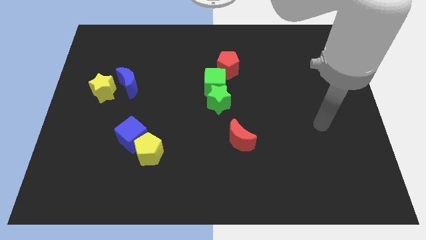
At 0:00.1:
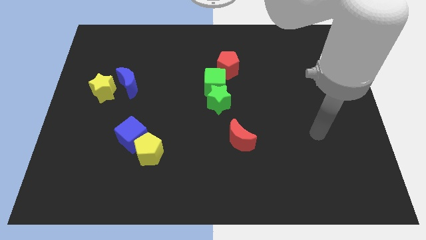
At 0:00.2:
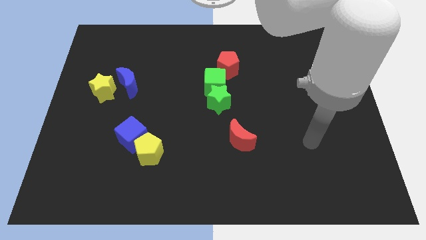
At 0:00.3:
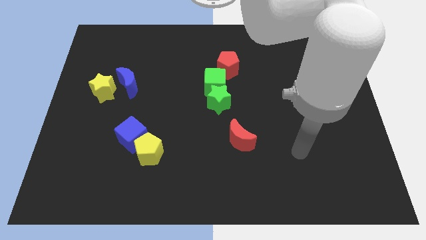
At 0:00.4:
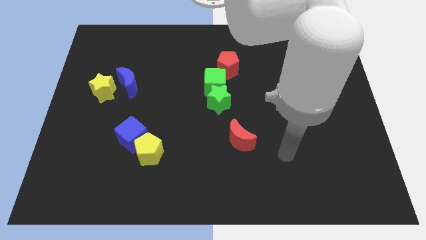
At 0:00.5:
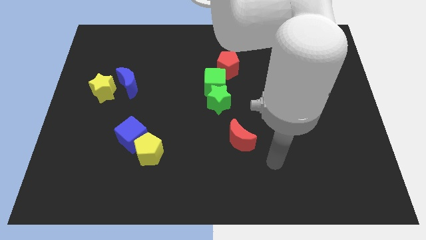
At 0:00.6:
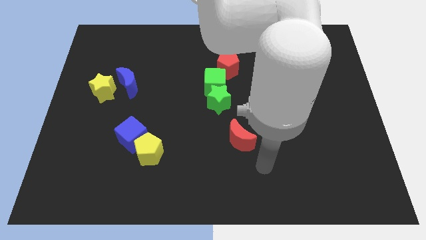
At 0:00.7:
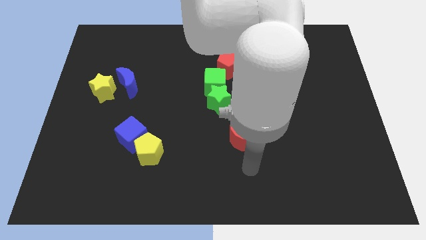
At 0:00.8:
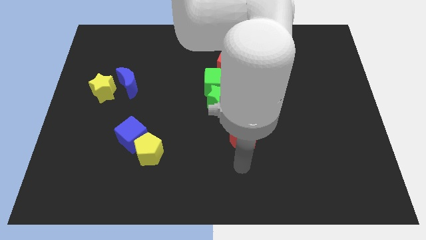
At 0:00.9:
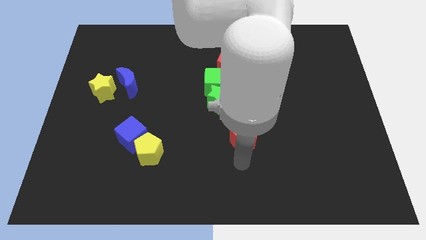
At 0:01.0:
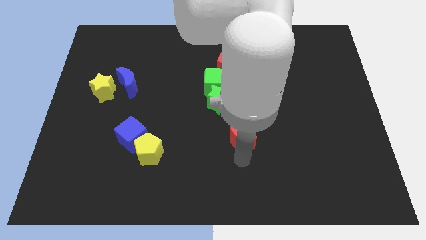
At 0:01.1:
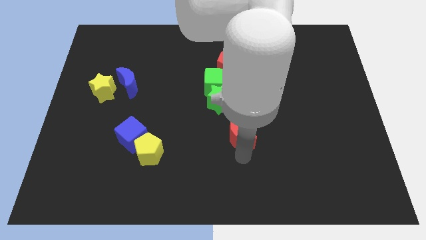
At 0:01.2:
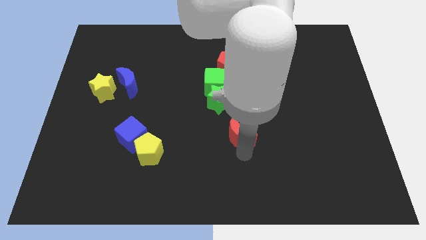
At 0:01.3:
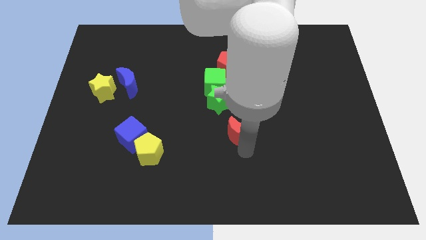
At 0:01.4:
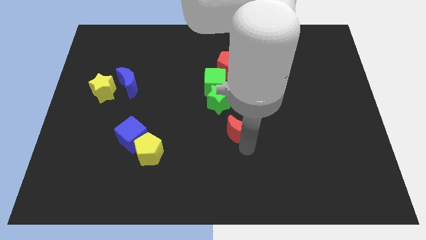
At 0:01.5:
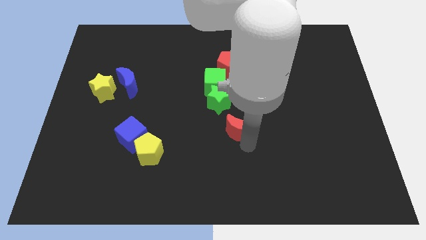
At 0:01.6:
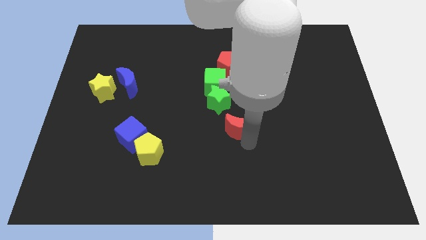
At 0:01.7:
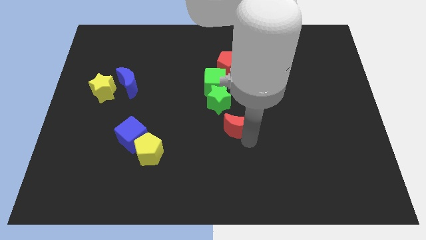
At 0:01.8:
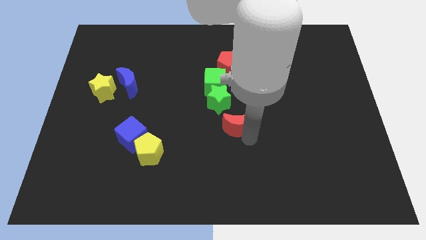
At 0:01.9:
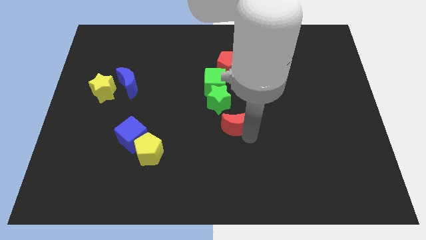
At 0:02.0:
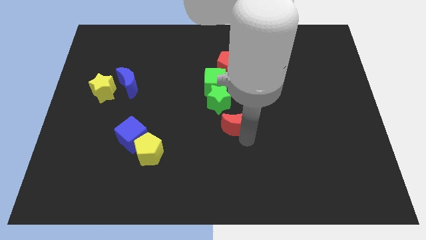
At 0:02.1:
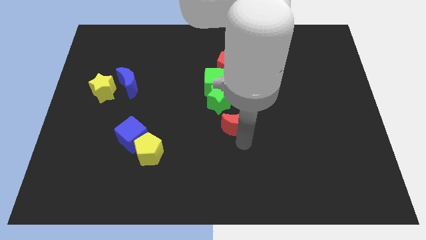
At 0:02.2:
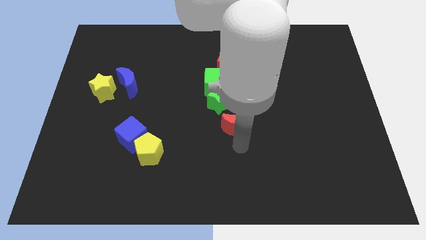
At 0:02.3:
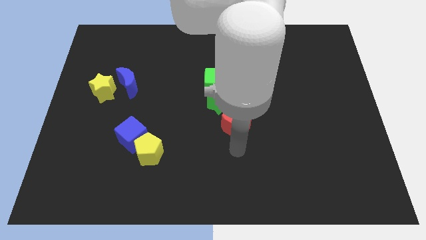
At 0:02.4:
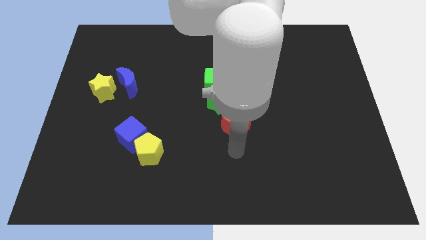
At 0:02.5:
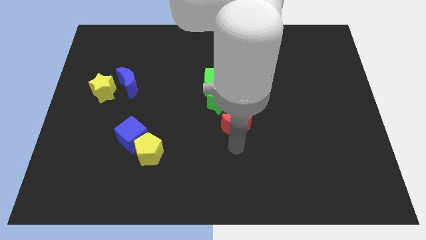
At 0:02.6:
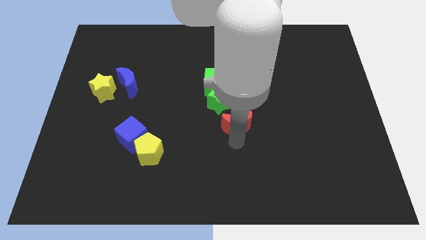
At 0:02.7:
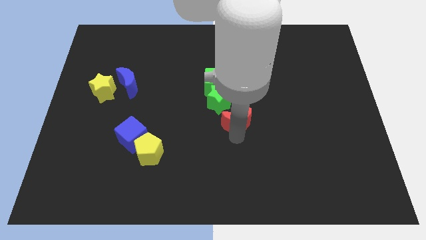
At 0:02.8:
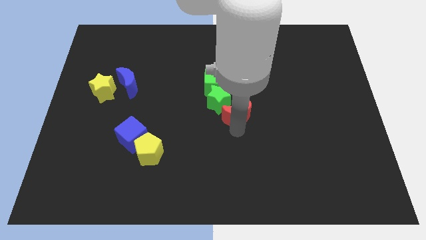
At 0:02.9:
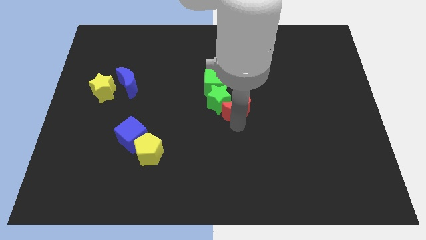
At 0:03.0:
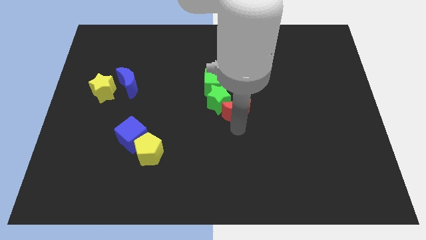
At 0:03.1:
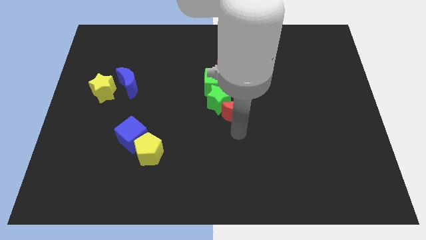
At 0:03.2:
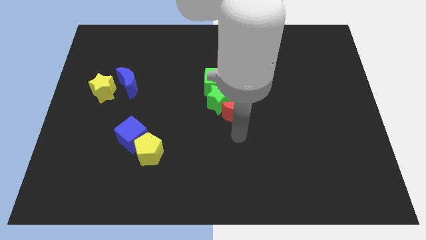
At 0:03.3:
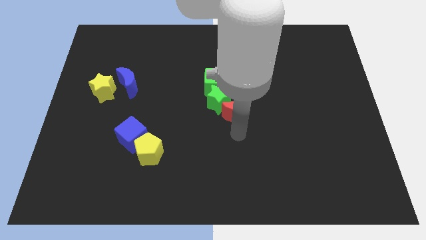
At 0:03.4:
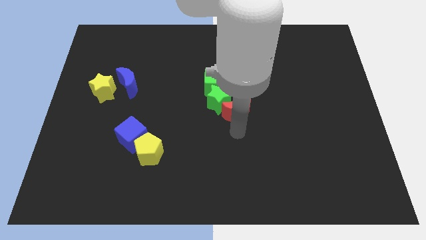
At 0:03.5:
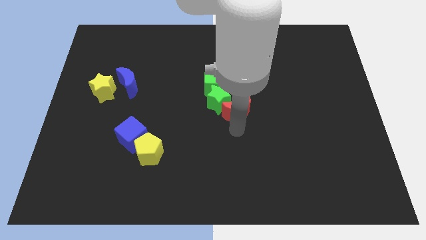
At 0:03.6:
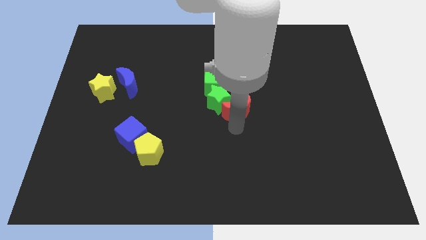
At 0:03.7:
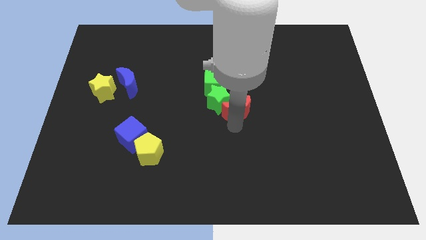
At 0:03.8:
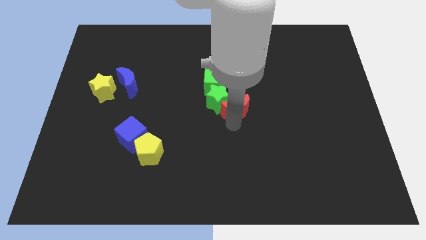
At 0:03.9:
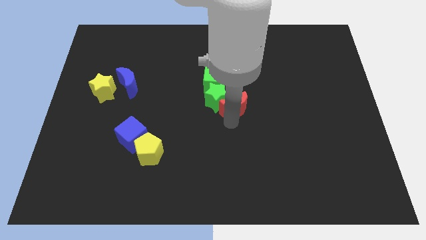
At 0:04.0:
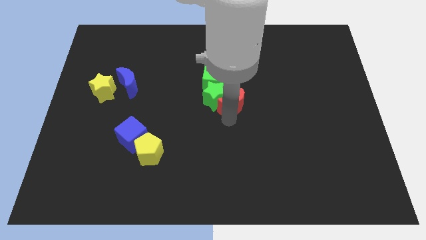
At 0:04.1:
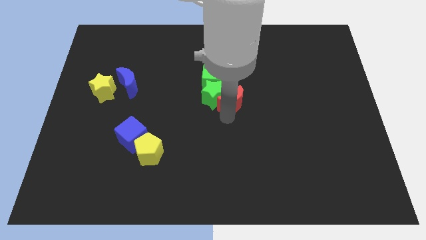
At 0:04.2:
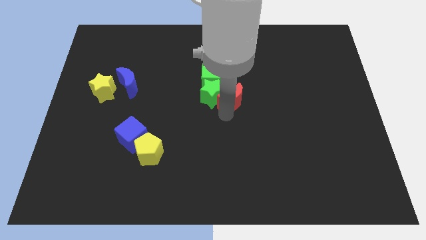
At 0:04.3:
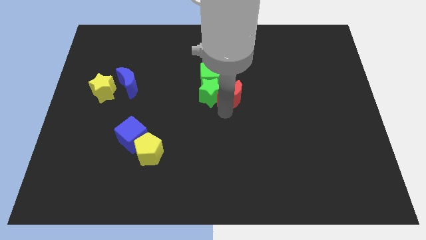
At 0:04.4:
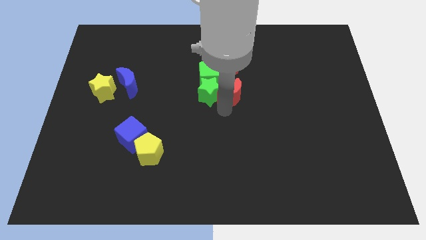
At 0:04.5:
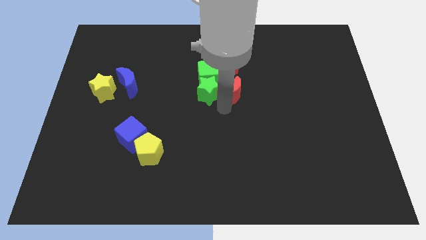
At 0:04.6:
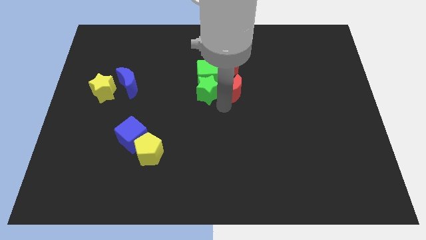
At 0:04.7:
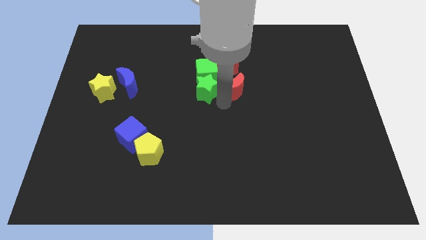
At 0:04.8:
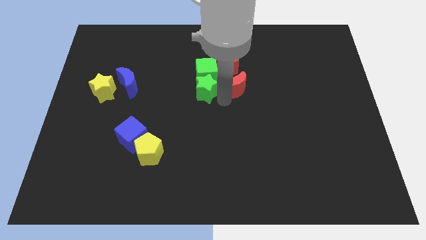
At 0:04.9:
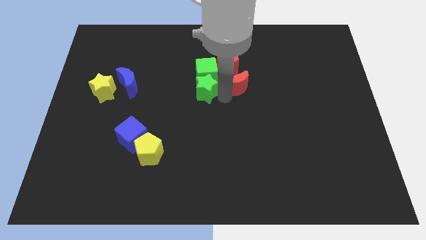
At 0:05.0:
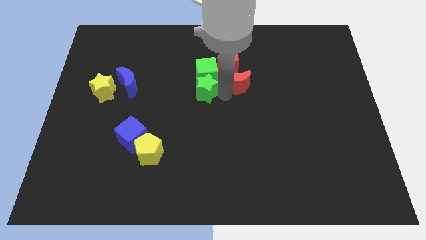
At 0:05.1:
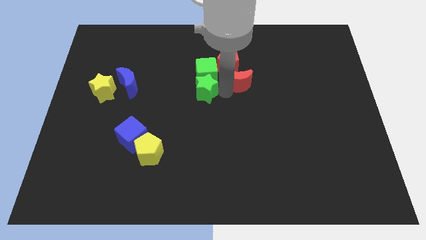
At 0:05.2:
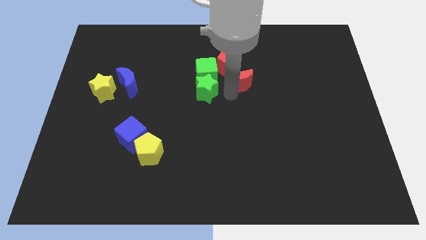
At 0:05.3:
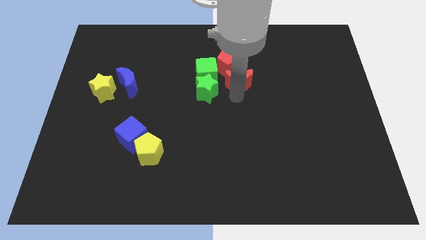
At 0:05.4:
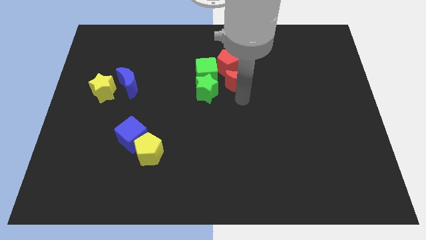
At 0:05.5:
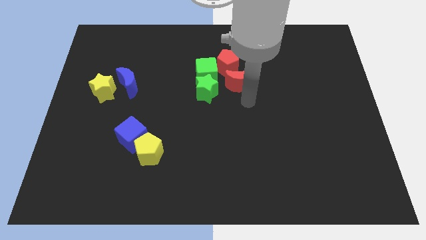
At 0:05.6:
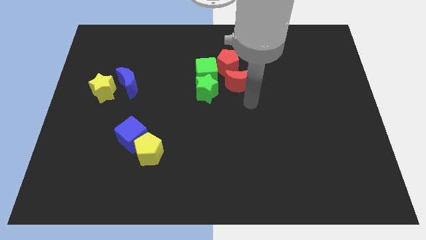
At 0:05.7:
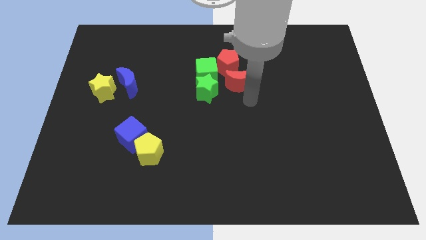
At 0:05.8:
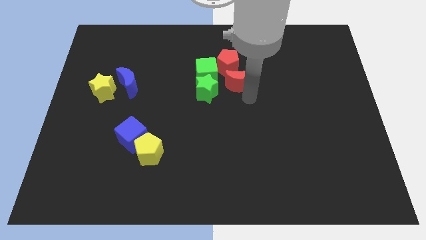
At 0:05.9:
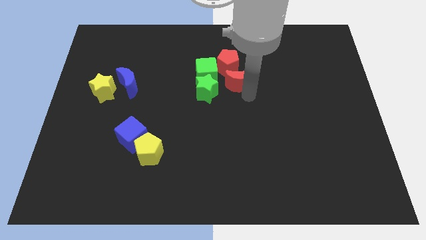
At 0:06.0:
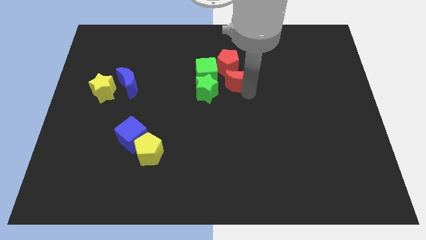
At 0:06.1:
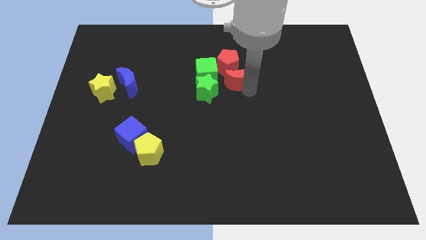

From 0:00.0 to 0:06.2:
slide the red moon next to the red pentagon

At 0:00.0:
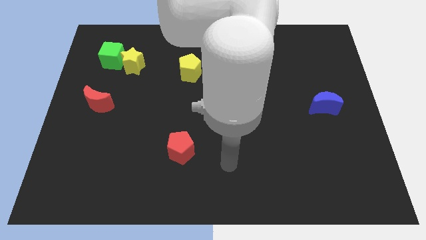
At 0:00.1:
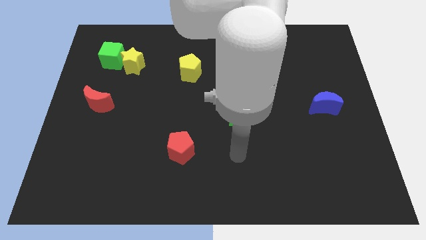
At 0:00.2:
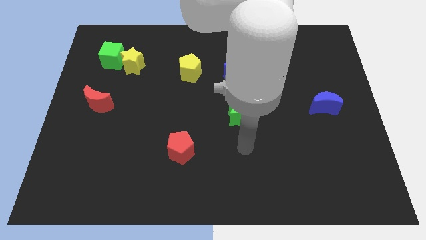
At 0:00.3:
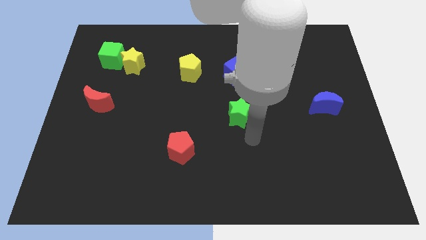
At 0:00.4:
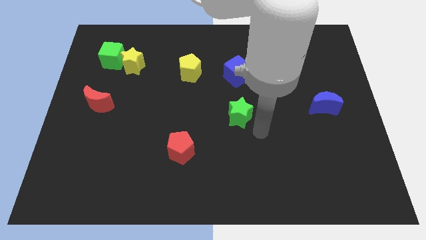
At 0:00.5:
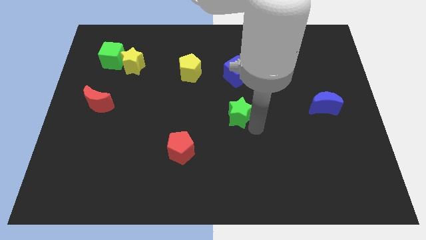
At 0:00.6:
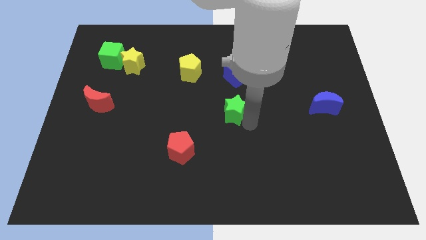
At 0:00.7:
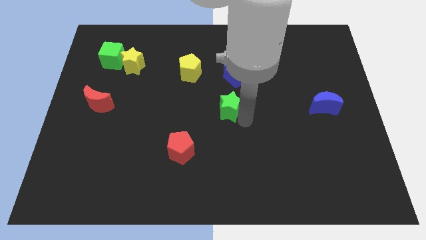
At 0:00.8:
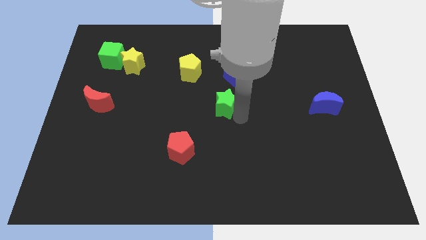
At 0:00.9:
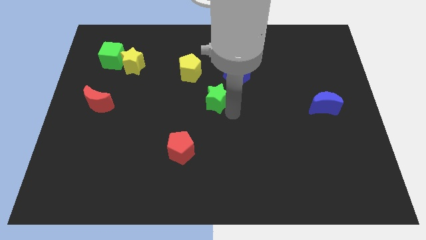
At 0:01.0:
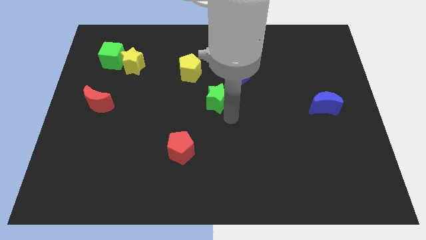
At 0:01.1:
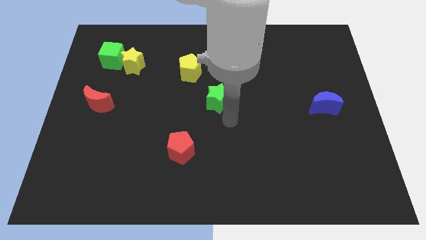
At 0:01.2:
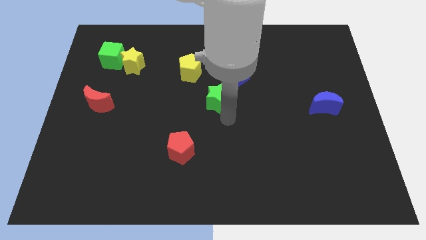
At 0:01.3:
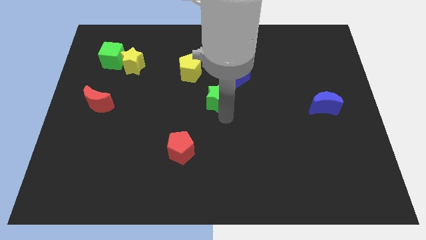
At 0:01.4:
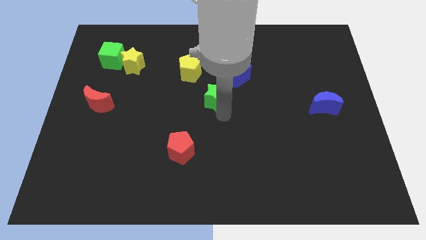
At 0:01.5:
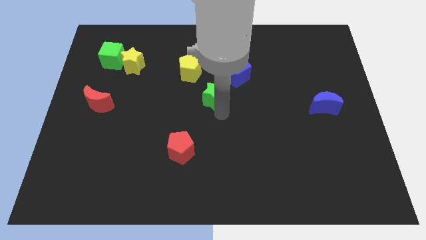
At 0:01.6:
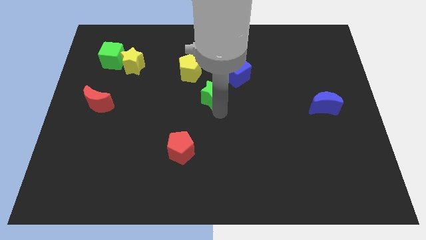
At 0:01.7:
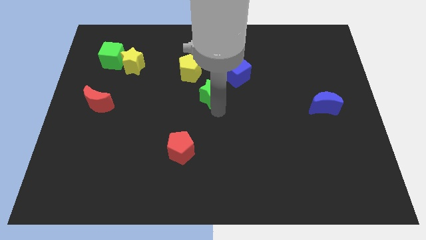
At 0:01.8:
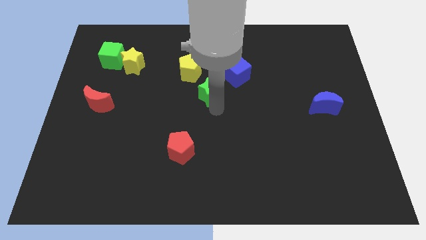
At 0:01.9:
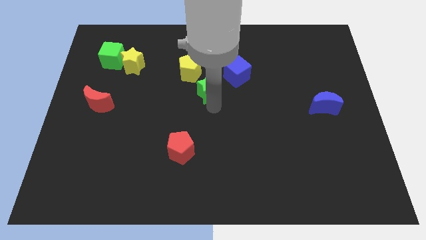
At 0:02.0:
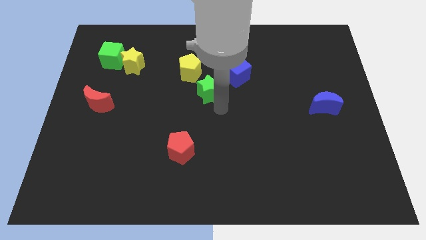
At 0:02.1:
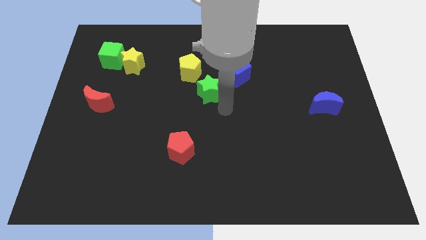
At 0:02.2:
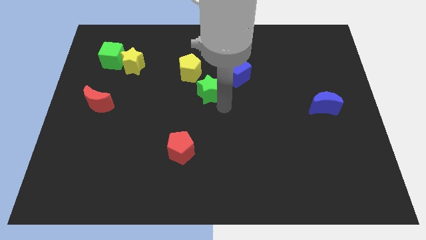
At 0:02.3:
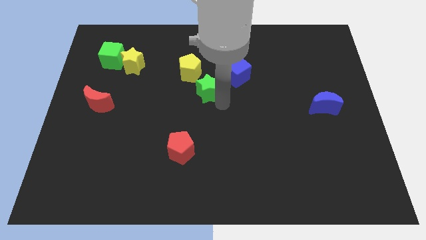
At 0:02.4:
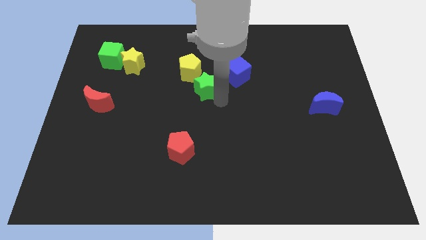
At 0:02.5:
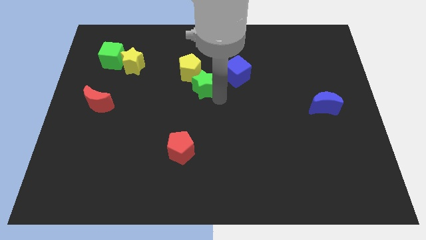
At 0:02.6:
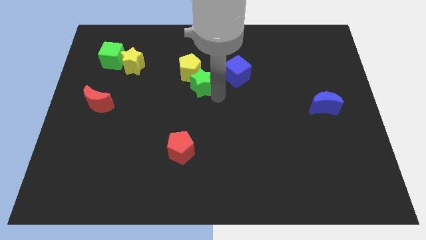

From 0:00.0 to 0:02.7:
put the green star next to the yellow pentagon
